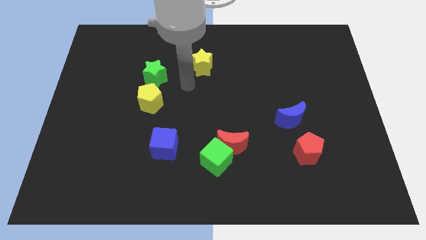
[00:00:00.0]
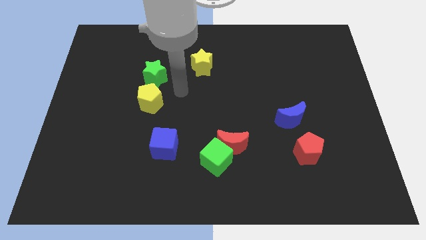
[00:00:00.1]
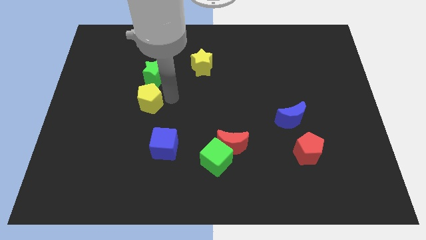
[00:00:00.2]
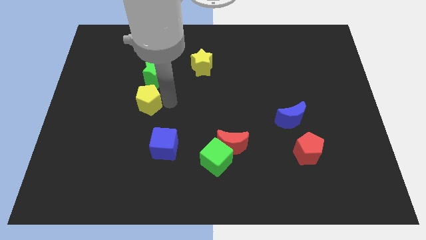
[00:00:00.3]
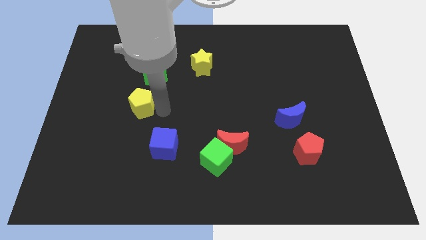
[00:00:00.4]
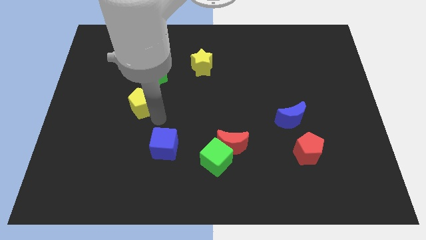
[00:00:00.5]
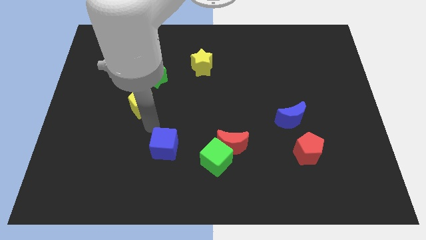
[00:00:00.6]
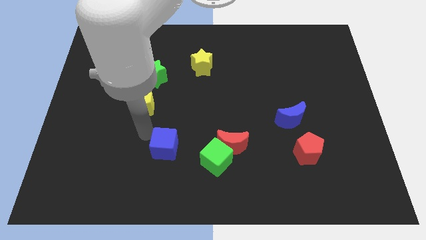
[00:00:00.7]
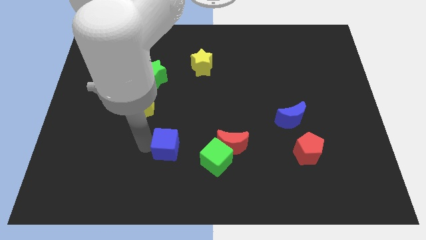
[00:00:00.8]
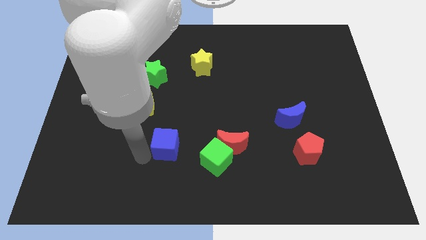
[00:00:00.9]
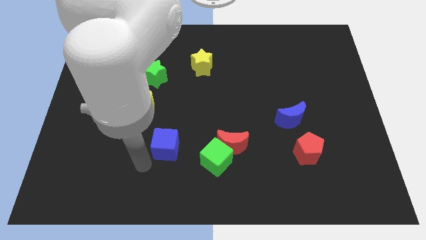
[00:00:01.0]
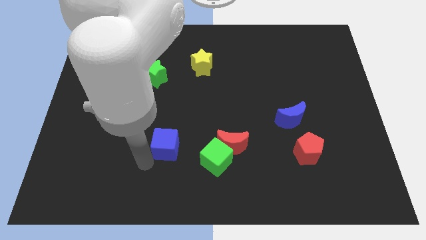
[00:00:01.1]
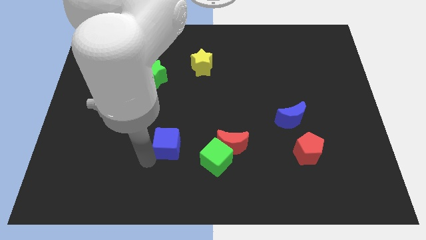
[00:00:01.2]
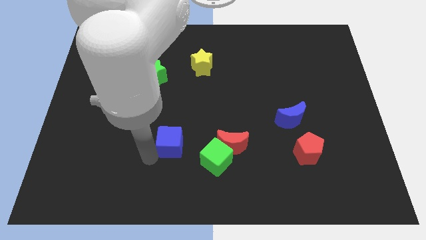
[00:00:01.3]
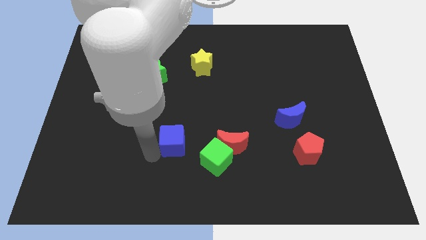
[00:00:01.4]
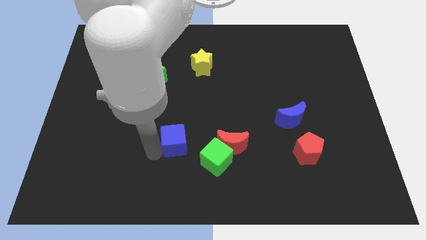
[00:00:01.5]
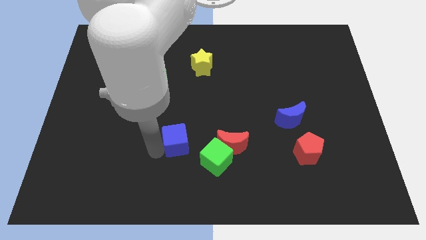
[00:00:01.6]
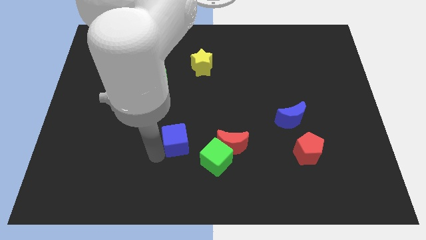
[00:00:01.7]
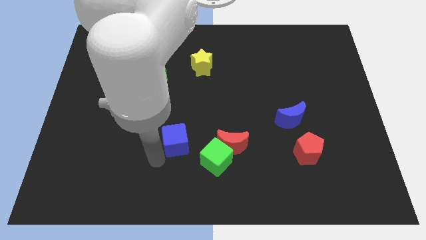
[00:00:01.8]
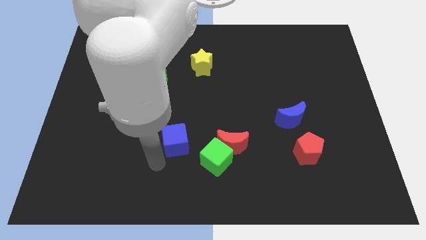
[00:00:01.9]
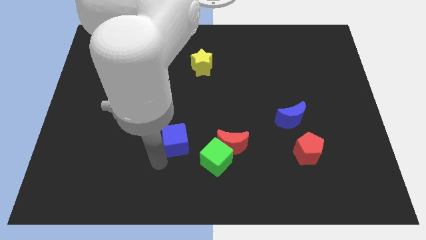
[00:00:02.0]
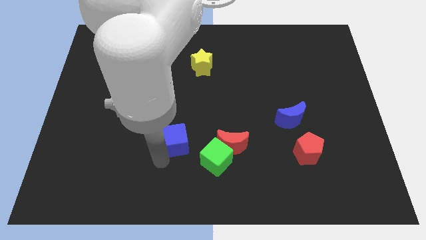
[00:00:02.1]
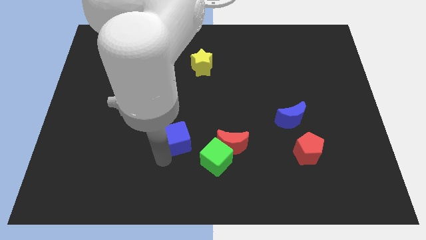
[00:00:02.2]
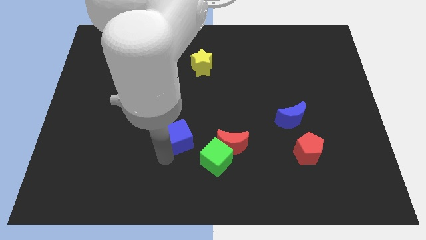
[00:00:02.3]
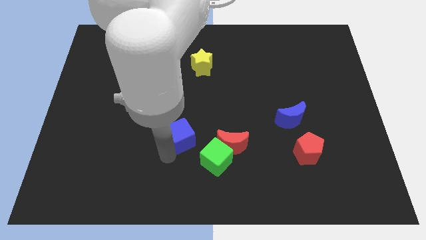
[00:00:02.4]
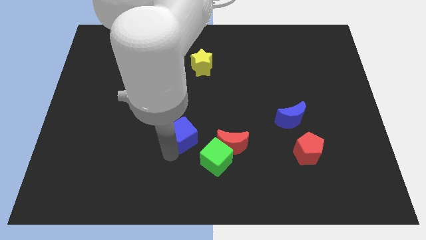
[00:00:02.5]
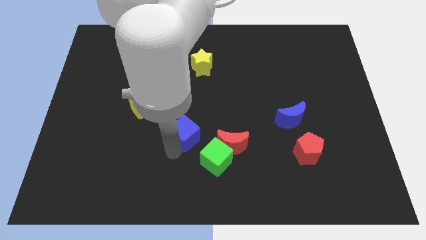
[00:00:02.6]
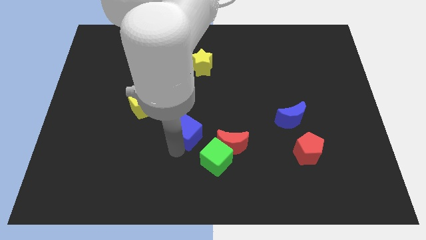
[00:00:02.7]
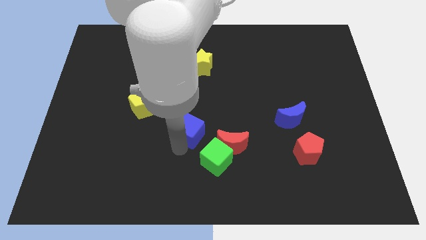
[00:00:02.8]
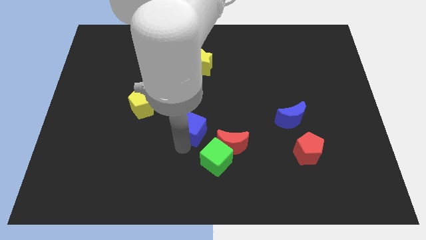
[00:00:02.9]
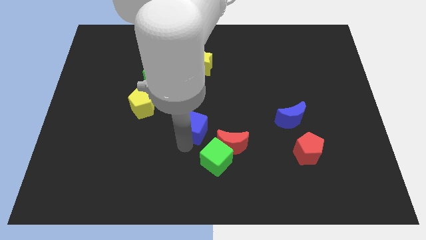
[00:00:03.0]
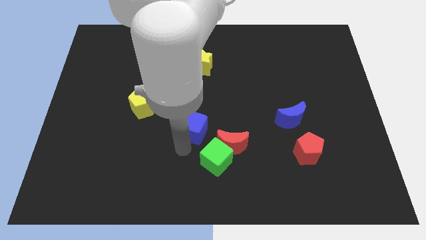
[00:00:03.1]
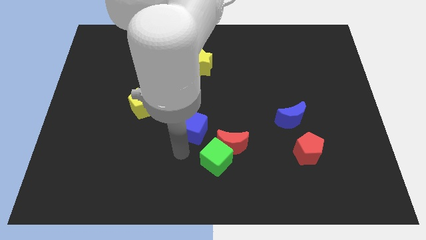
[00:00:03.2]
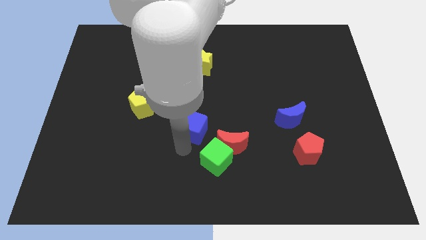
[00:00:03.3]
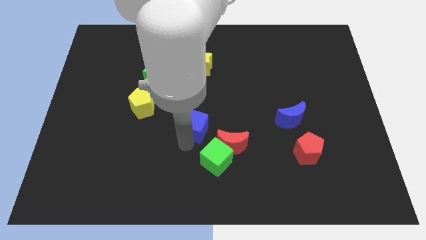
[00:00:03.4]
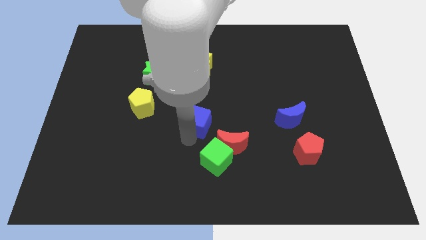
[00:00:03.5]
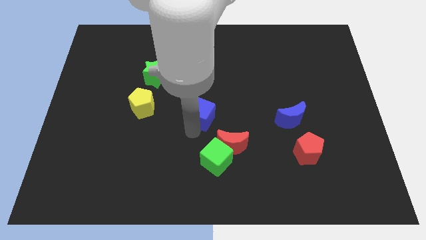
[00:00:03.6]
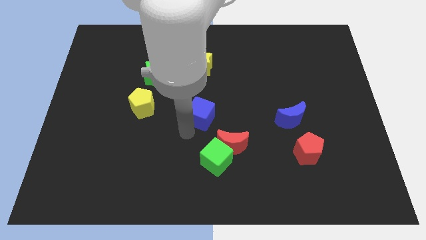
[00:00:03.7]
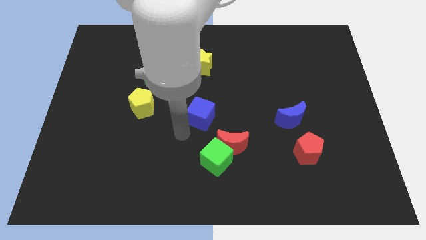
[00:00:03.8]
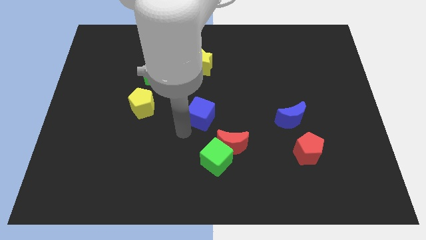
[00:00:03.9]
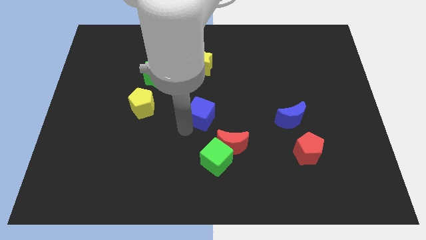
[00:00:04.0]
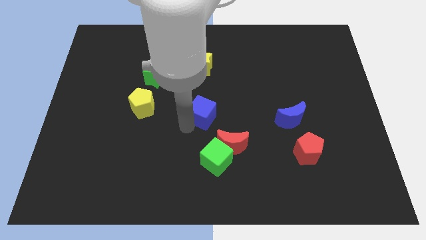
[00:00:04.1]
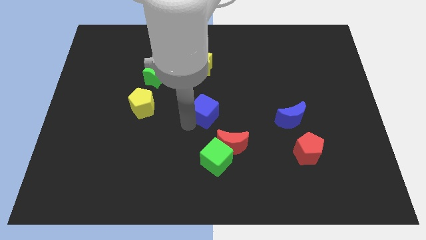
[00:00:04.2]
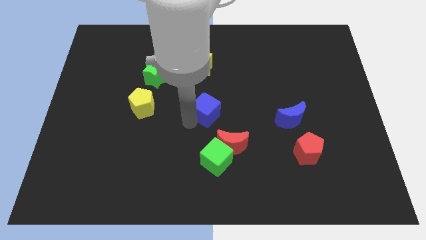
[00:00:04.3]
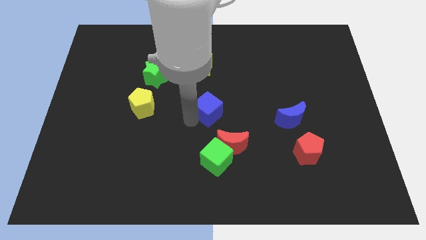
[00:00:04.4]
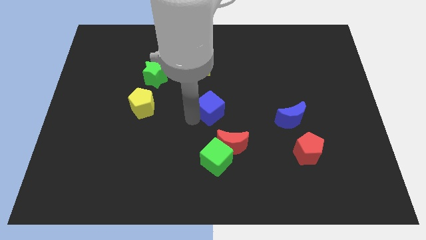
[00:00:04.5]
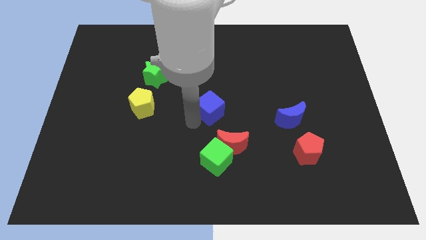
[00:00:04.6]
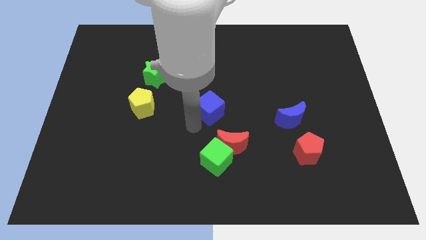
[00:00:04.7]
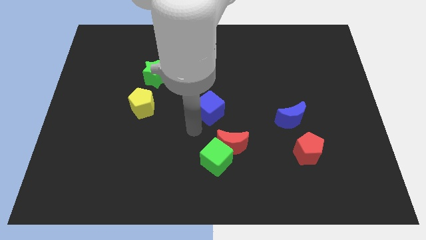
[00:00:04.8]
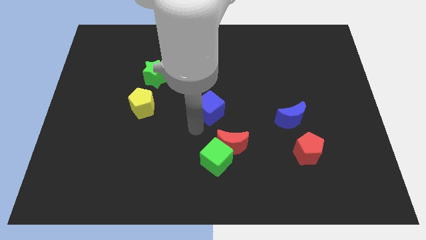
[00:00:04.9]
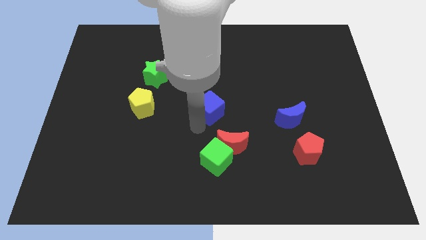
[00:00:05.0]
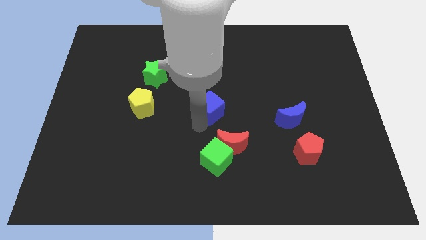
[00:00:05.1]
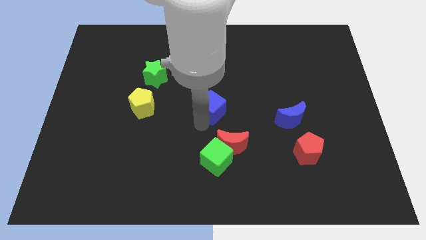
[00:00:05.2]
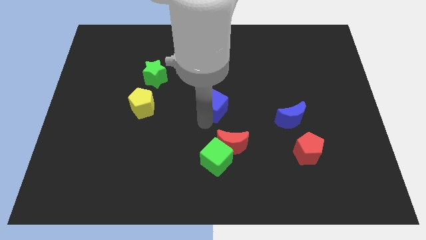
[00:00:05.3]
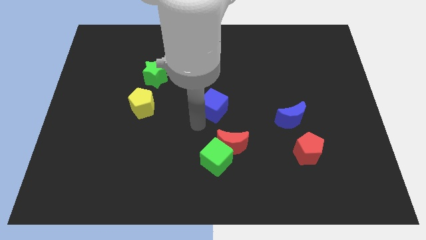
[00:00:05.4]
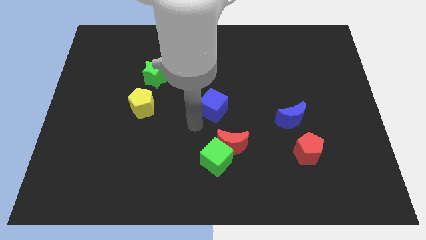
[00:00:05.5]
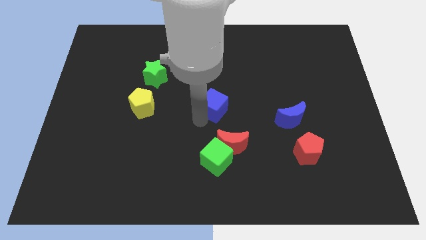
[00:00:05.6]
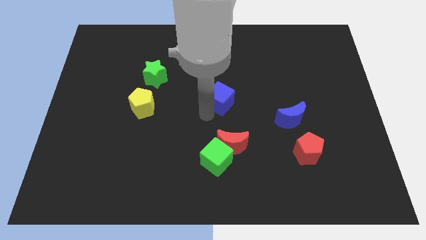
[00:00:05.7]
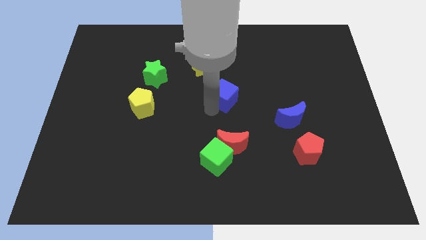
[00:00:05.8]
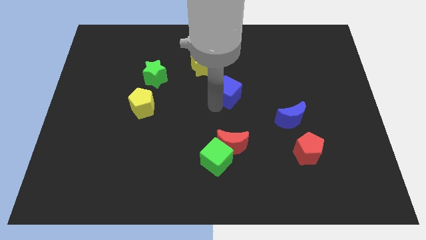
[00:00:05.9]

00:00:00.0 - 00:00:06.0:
slide the blue cube up and then to the right

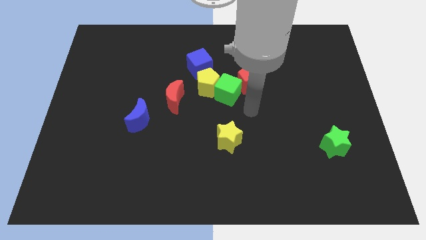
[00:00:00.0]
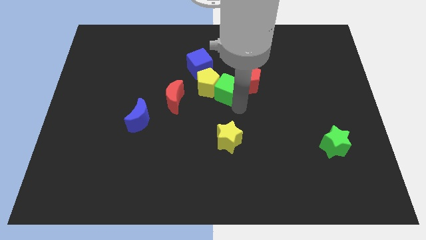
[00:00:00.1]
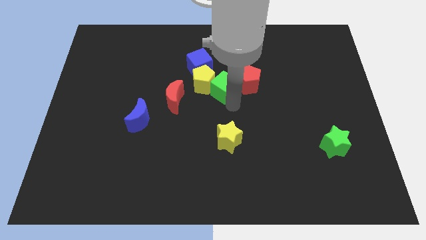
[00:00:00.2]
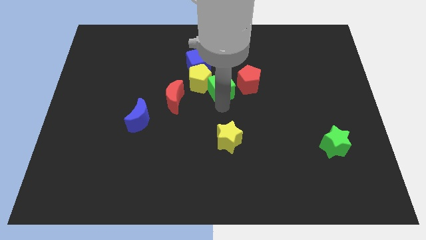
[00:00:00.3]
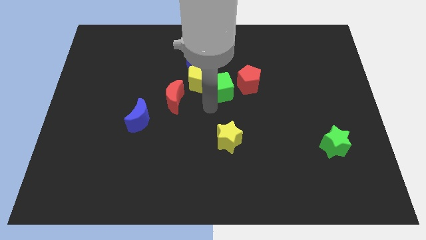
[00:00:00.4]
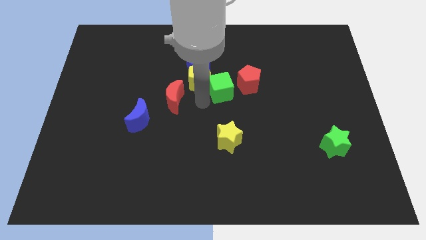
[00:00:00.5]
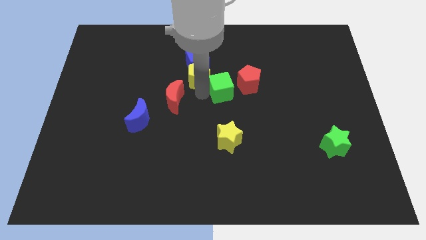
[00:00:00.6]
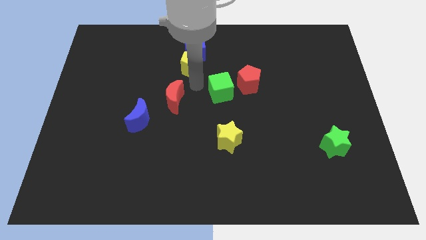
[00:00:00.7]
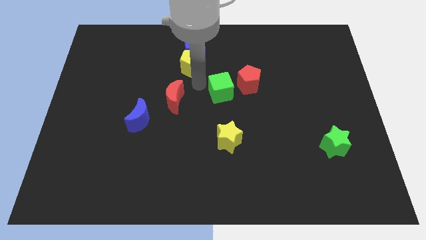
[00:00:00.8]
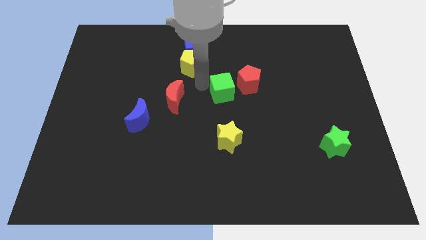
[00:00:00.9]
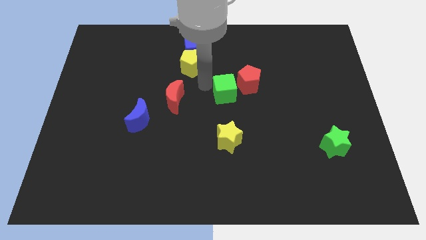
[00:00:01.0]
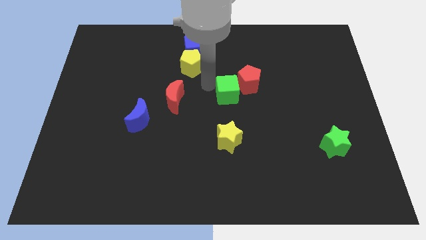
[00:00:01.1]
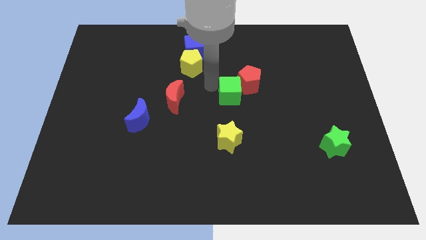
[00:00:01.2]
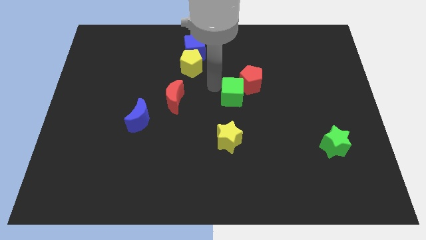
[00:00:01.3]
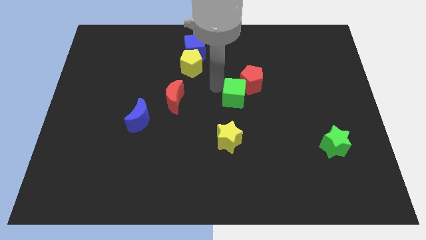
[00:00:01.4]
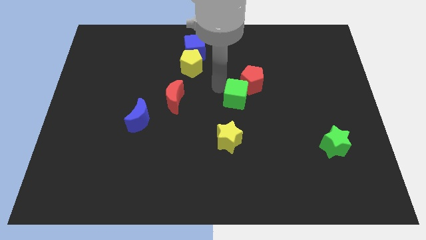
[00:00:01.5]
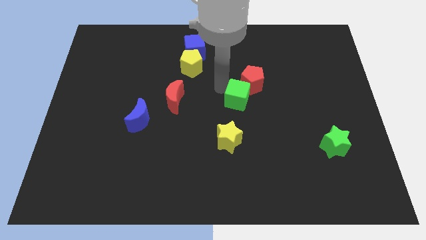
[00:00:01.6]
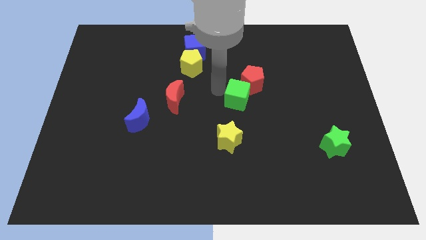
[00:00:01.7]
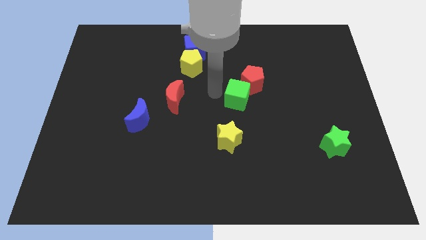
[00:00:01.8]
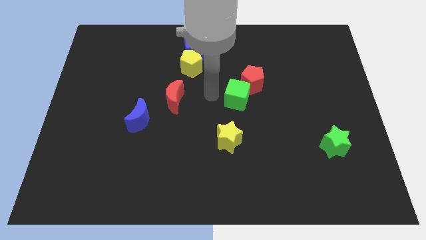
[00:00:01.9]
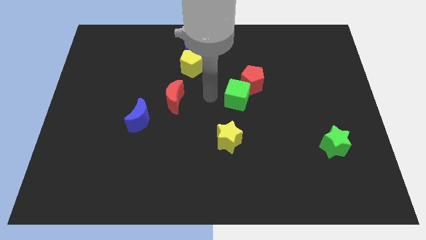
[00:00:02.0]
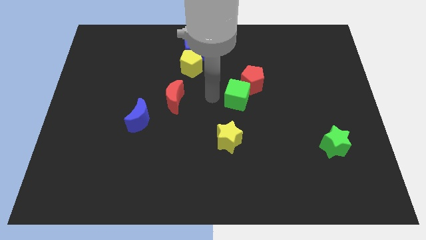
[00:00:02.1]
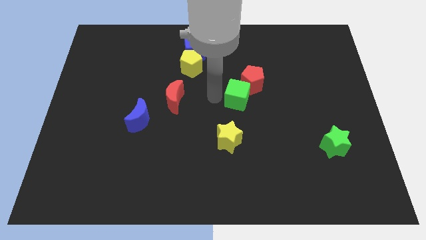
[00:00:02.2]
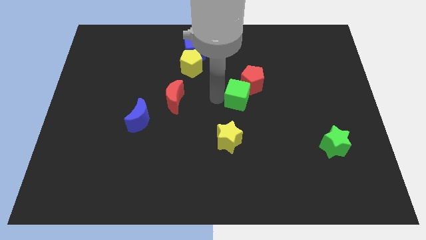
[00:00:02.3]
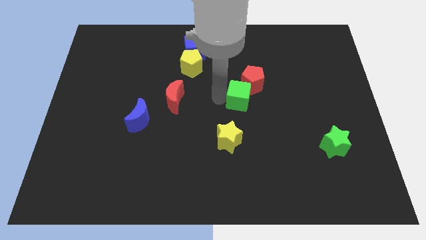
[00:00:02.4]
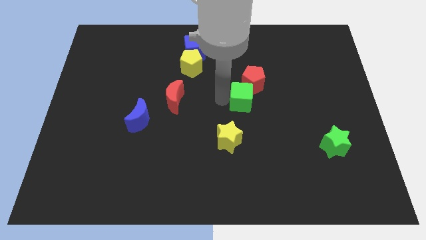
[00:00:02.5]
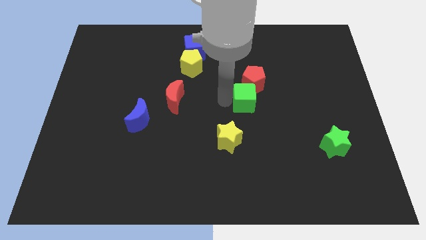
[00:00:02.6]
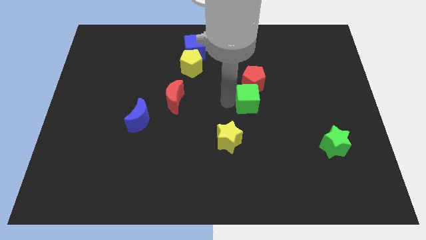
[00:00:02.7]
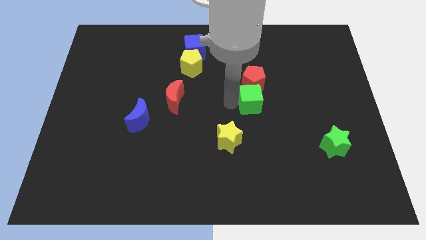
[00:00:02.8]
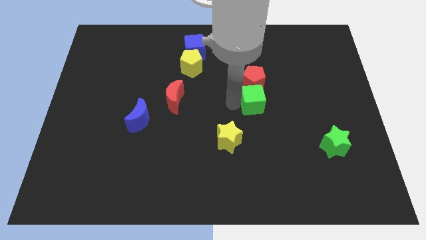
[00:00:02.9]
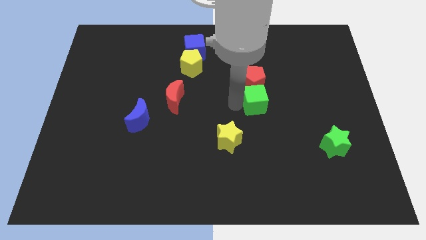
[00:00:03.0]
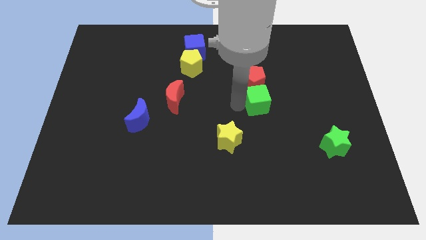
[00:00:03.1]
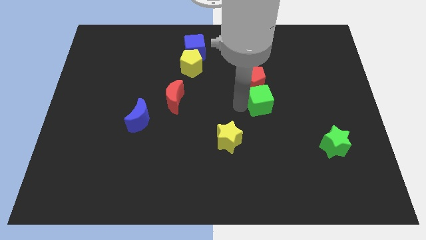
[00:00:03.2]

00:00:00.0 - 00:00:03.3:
slightly push the green cube to the right
